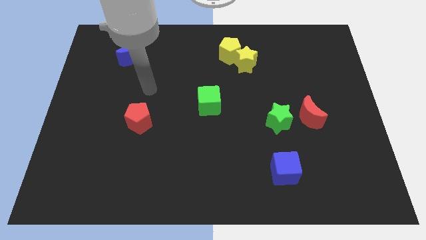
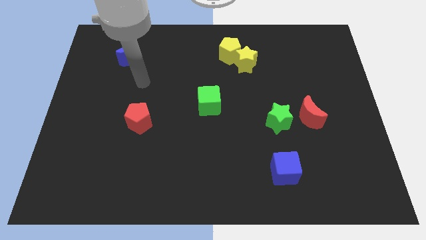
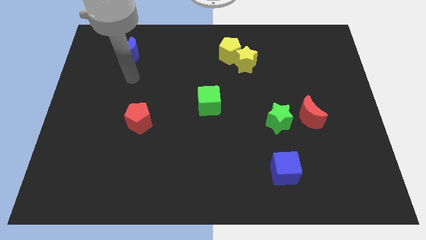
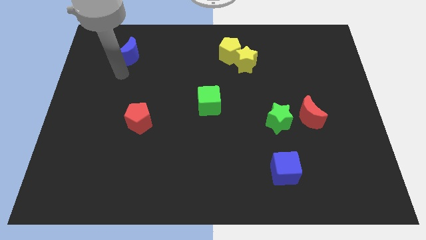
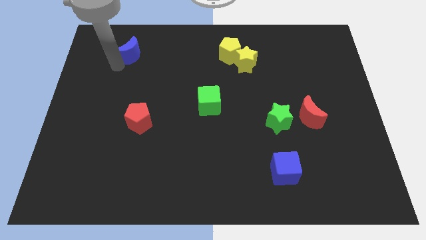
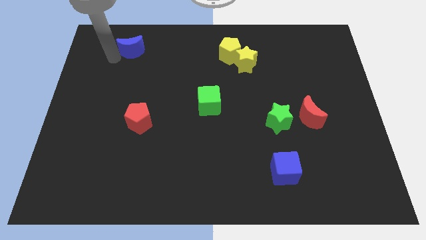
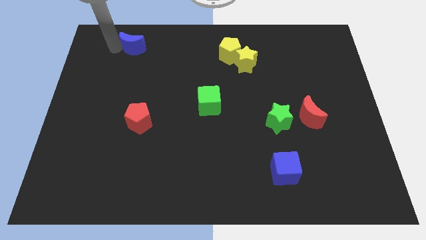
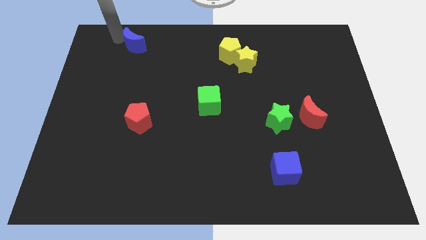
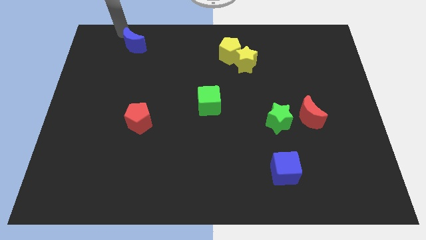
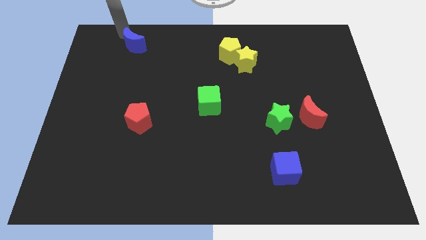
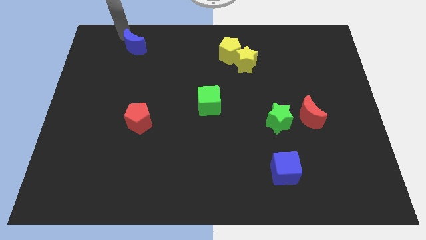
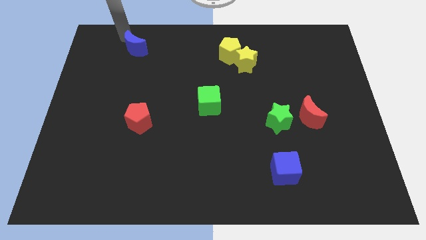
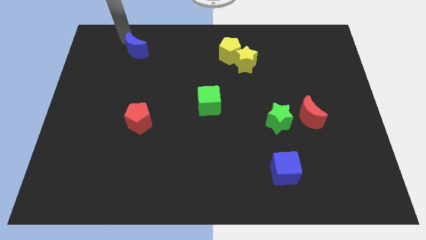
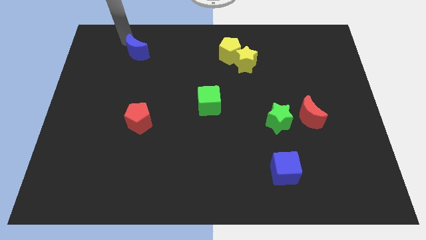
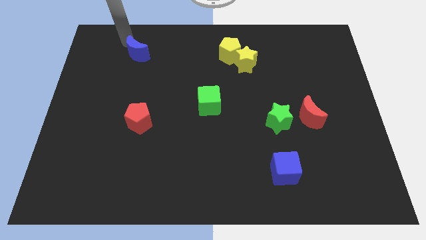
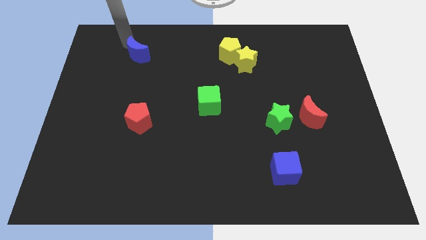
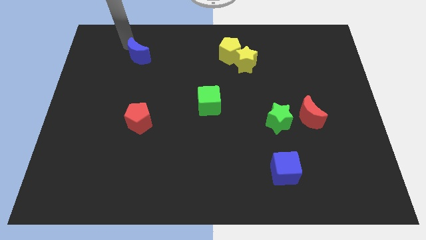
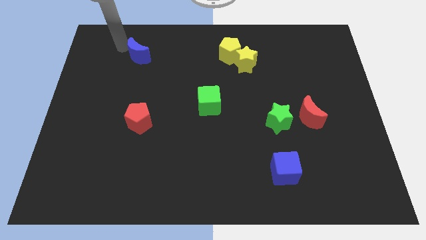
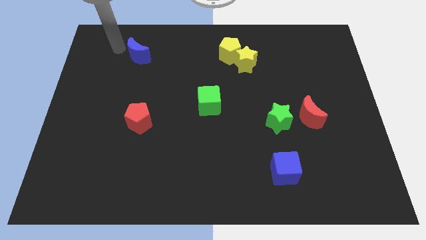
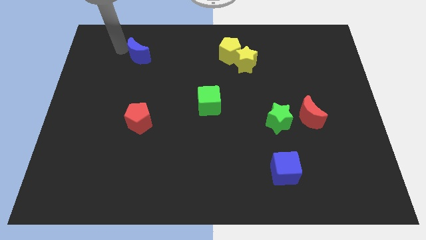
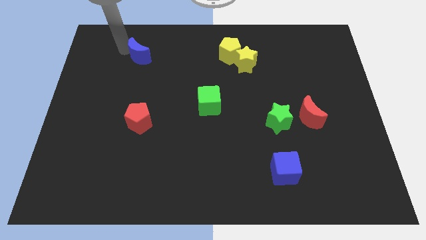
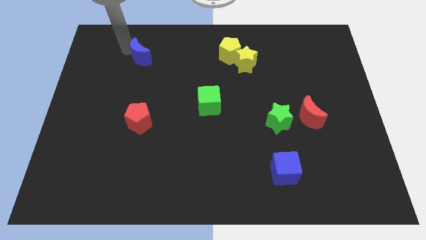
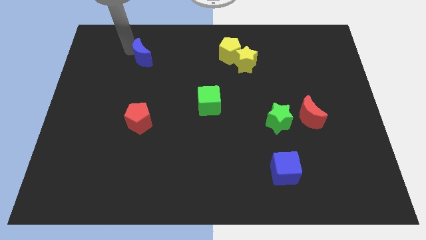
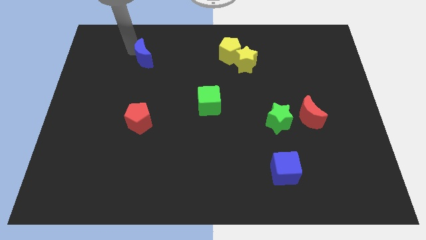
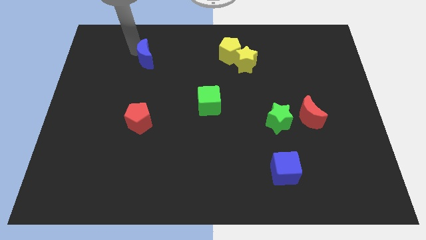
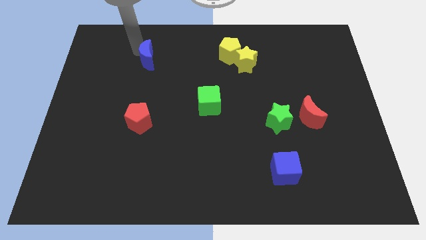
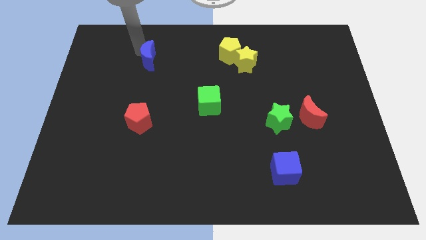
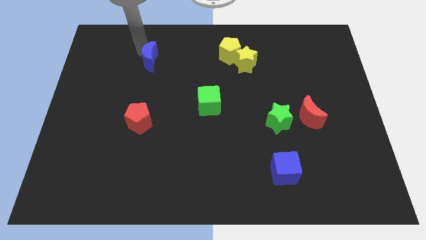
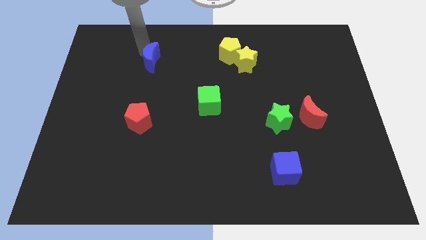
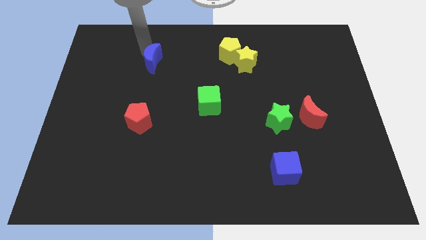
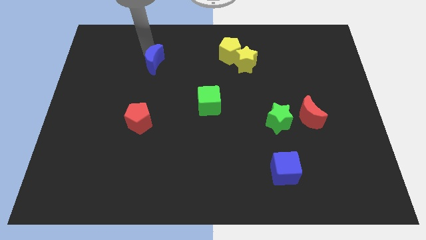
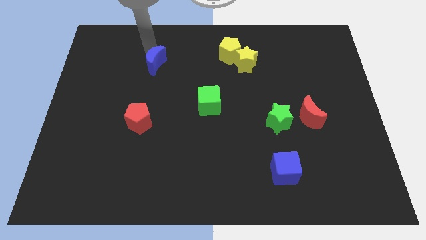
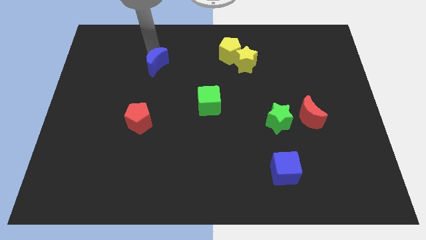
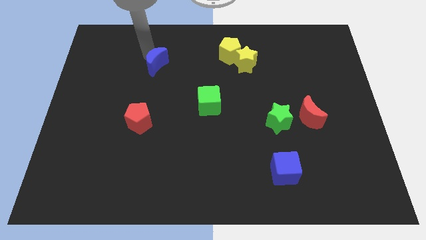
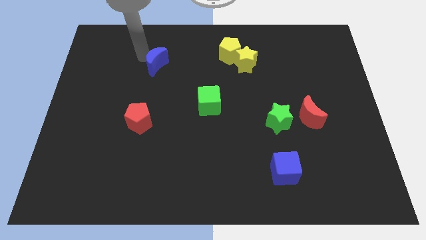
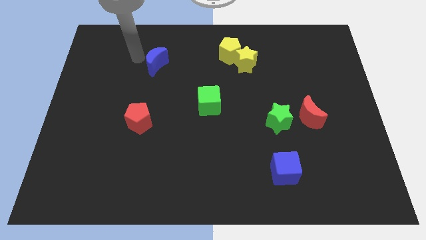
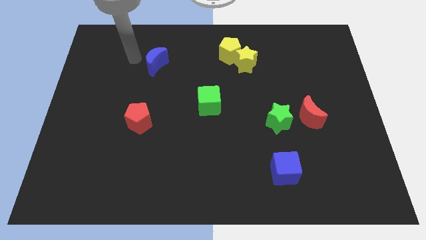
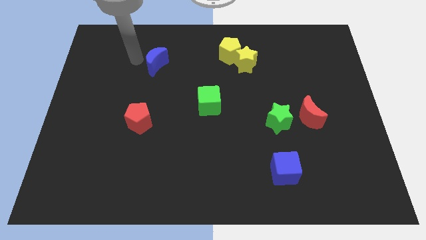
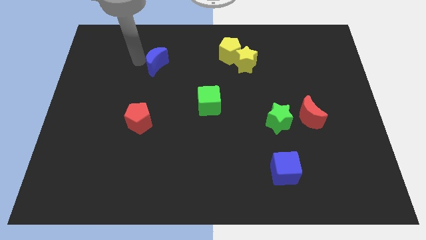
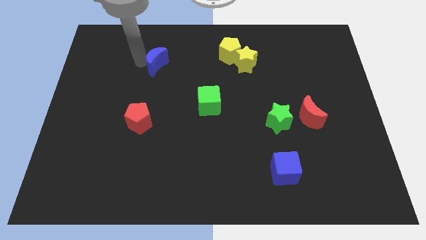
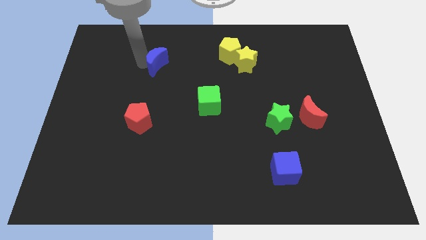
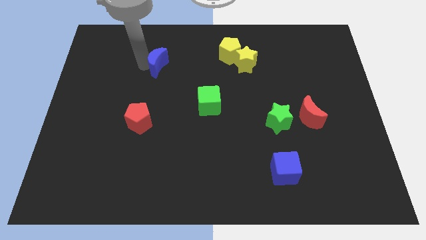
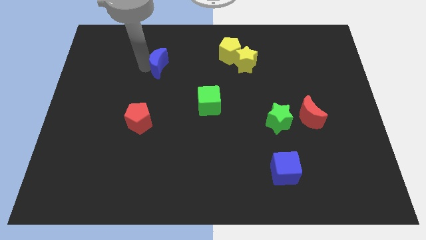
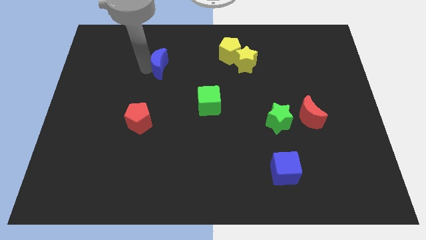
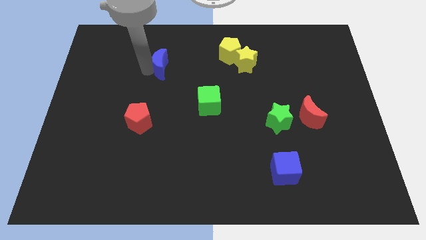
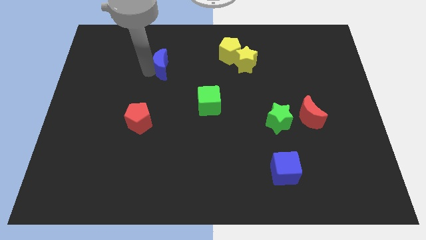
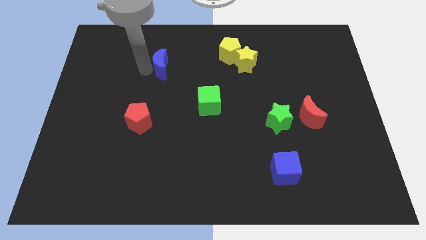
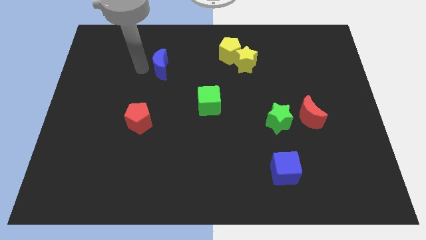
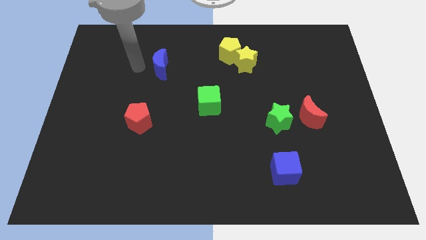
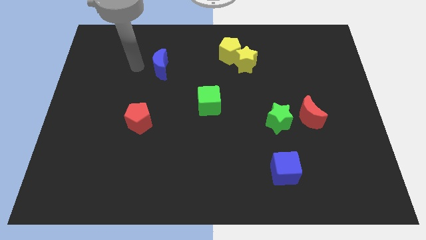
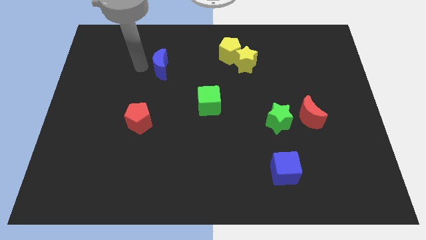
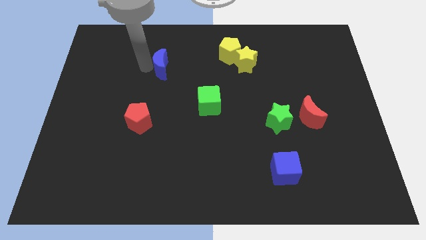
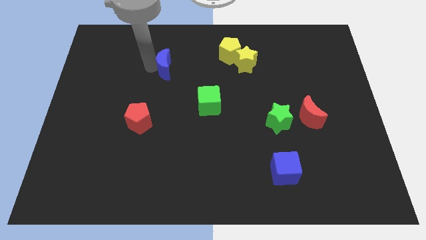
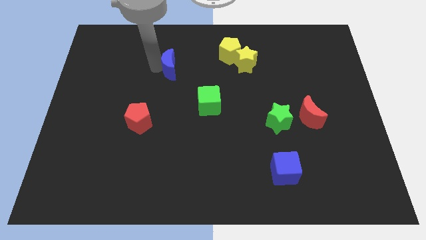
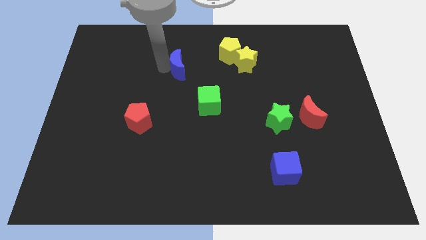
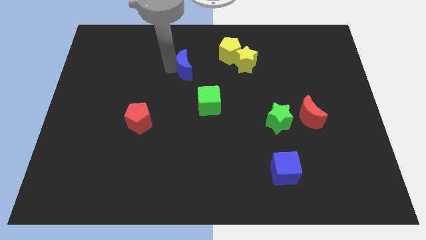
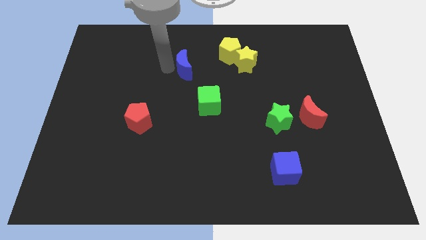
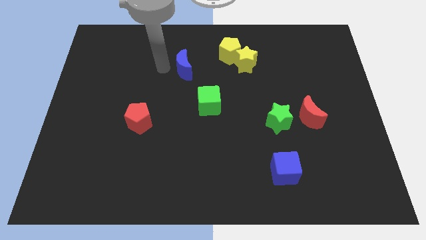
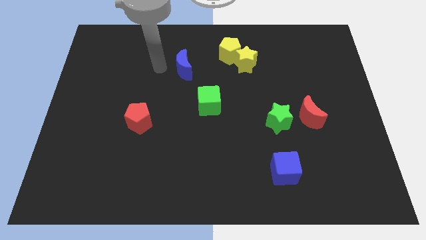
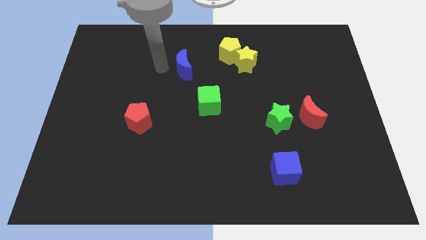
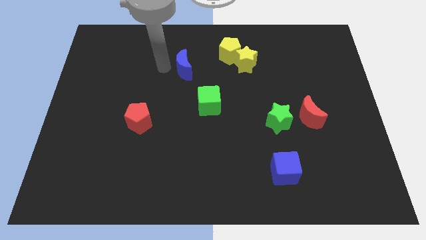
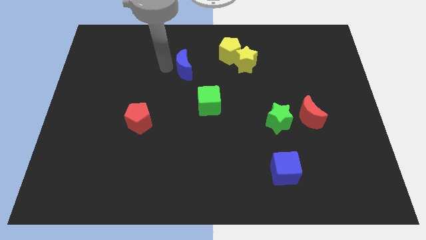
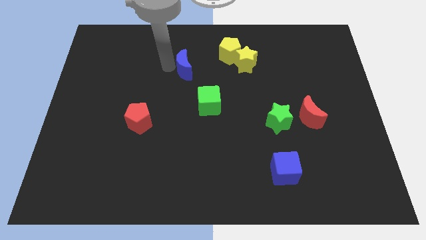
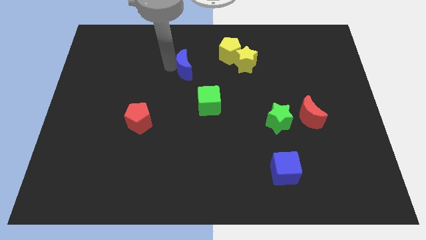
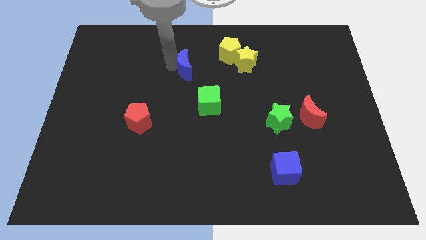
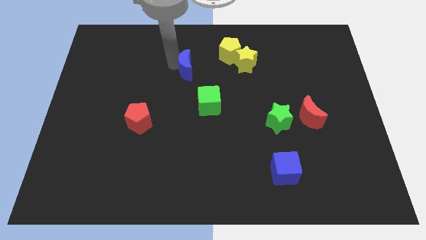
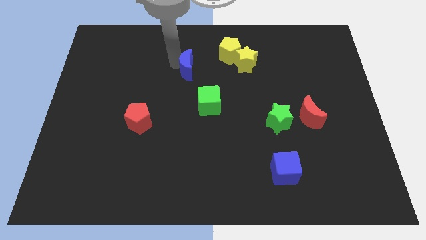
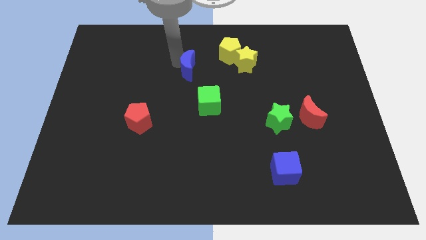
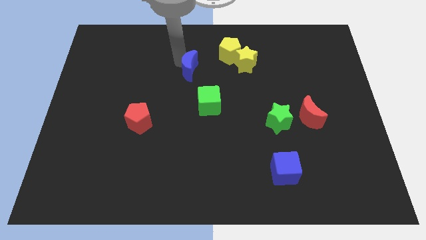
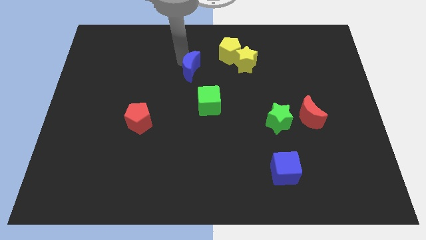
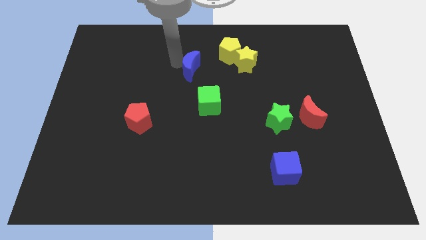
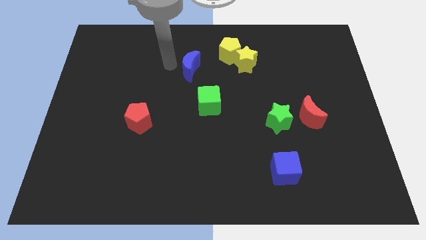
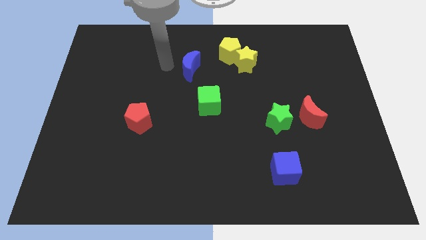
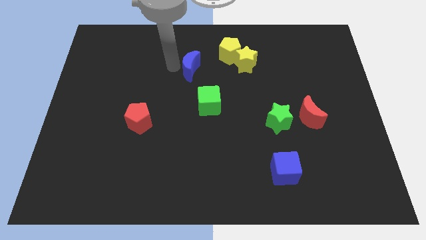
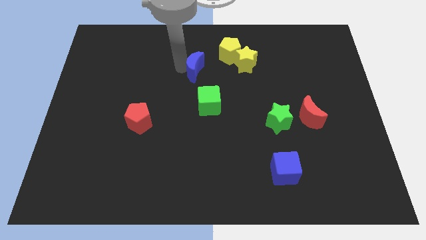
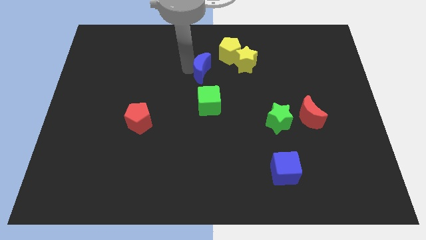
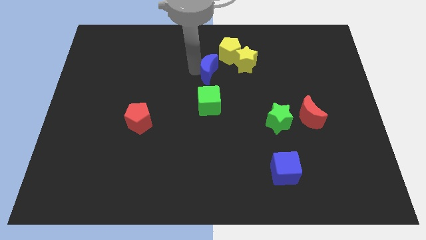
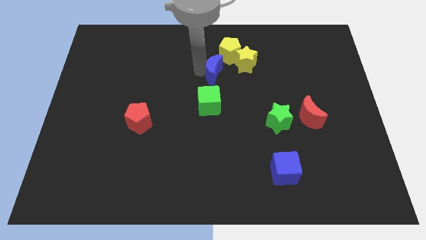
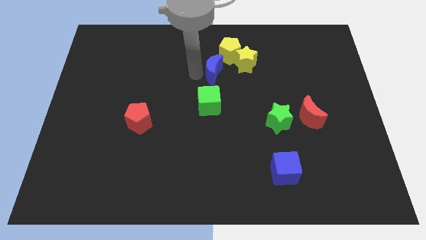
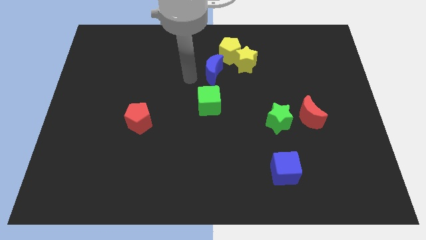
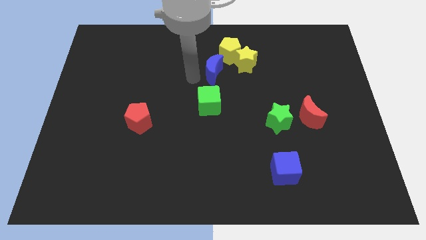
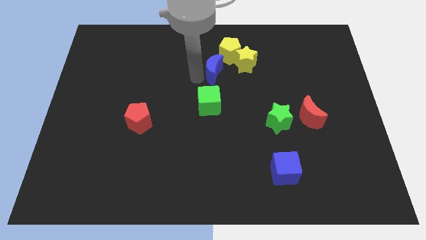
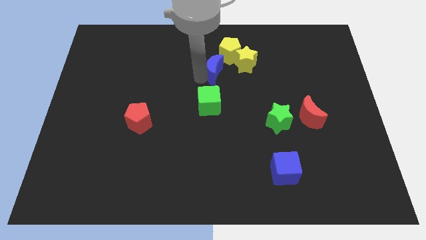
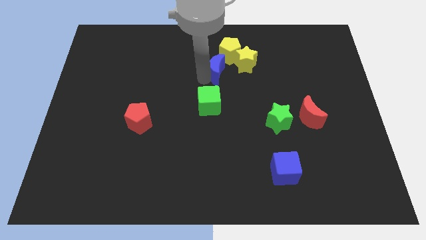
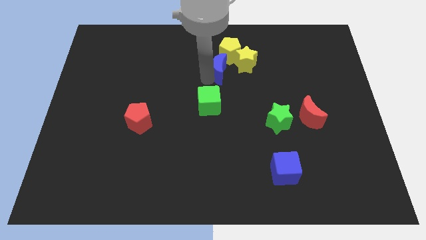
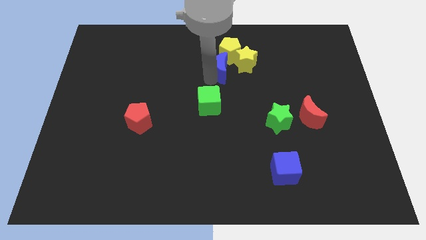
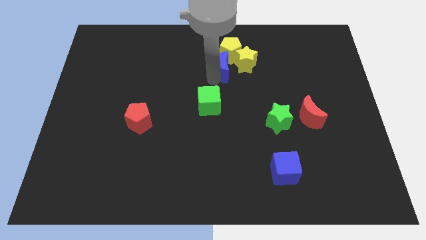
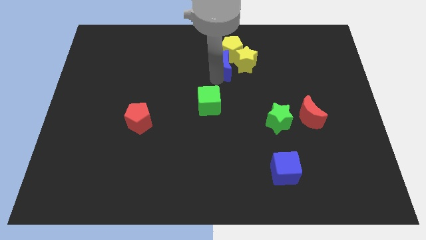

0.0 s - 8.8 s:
push the blue moon to the yellow star
